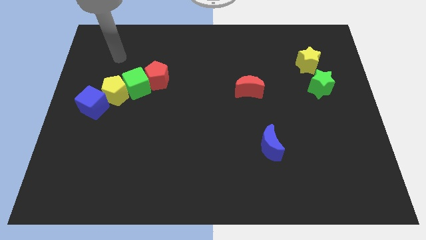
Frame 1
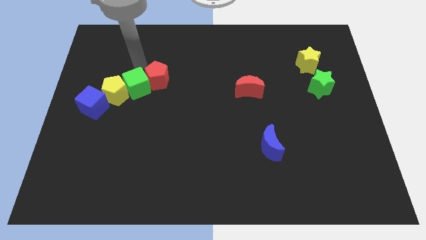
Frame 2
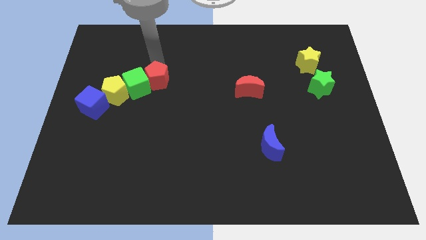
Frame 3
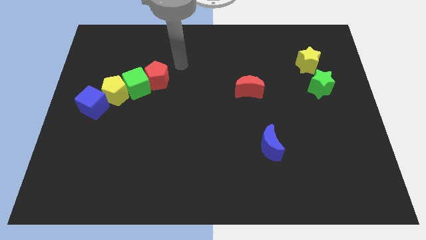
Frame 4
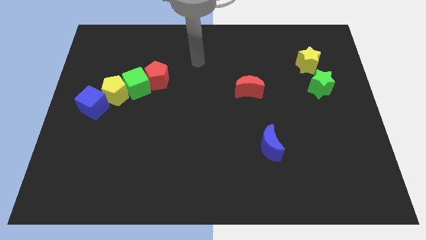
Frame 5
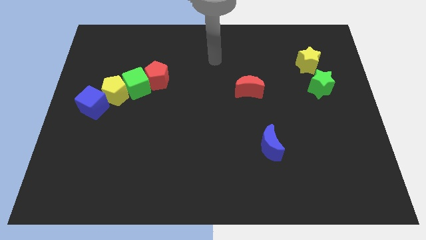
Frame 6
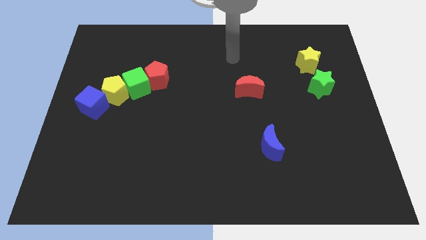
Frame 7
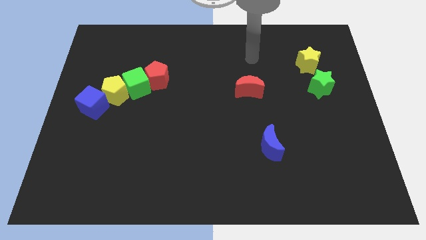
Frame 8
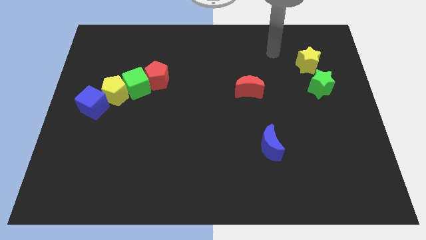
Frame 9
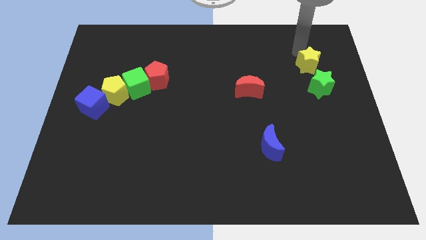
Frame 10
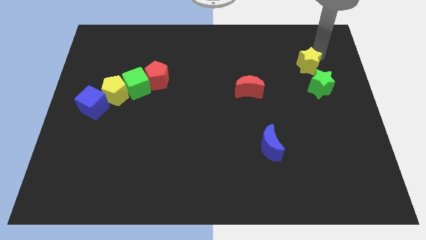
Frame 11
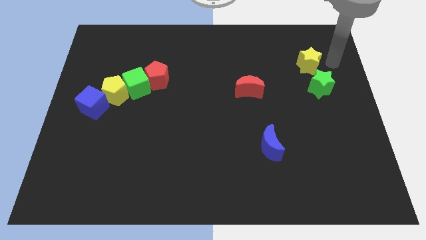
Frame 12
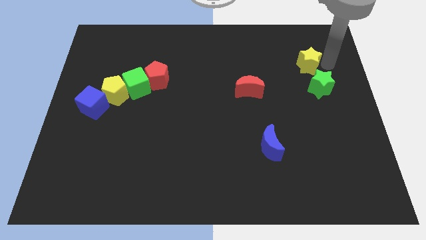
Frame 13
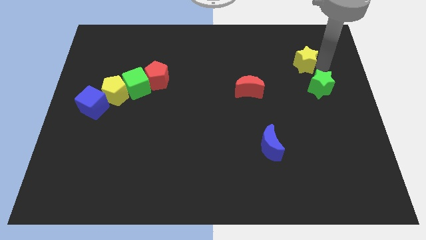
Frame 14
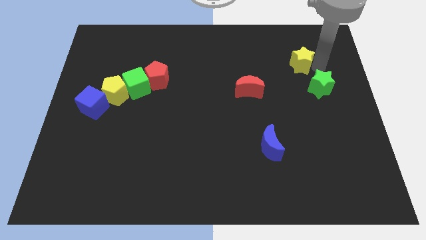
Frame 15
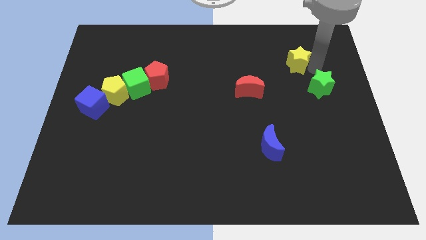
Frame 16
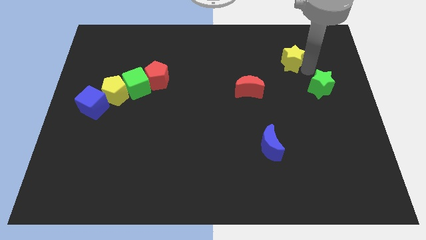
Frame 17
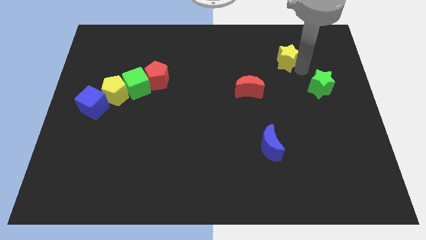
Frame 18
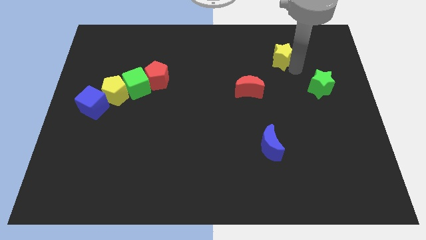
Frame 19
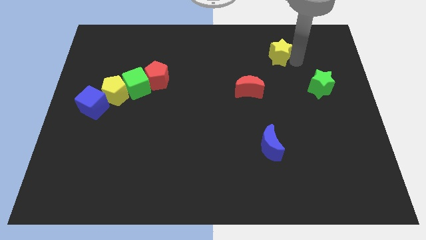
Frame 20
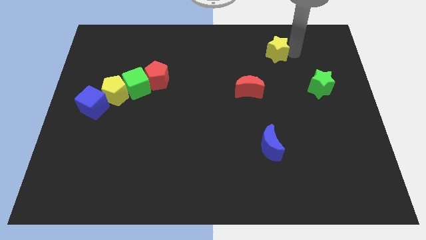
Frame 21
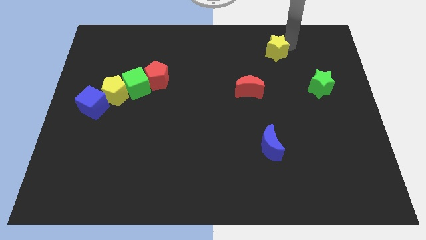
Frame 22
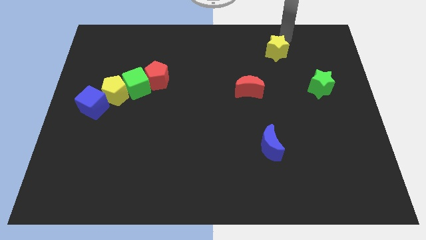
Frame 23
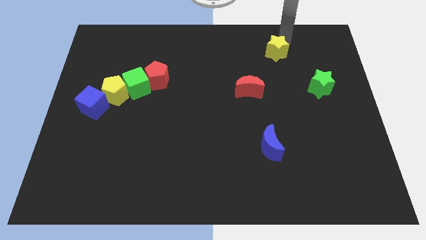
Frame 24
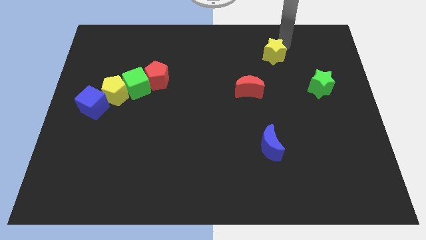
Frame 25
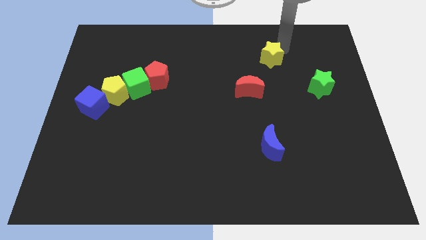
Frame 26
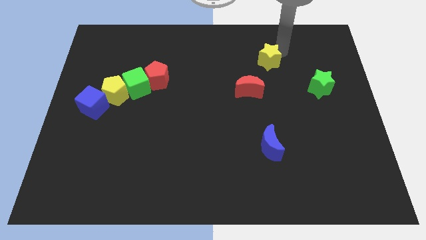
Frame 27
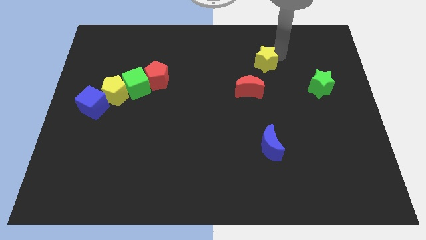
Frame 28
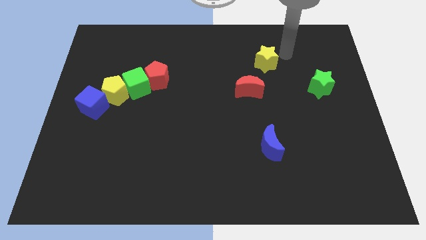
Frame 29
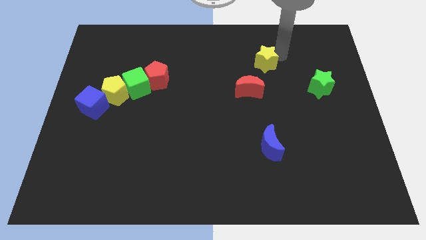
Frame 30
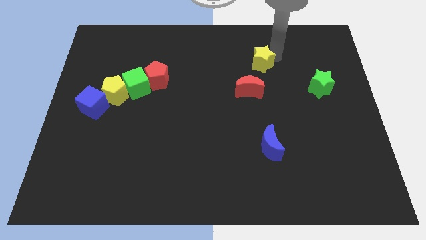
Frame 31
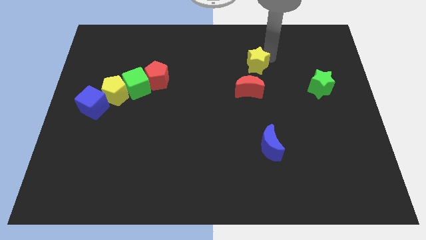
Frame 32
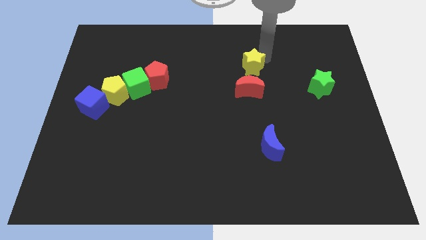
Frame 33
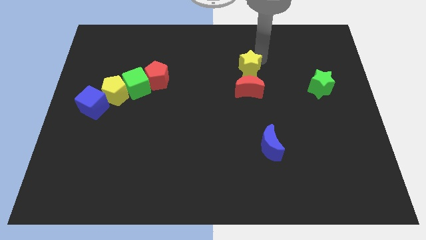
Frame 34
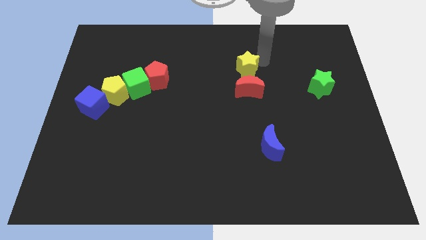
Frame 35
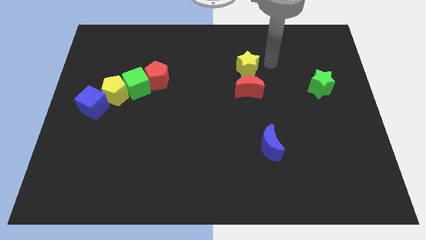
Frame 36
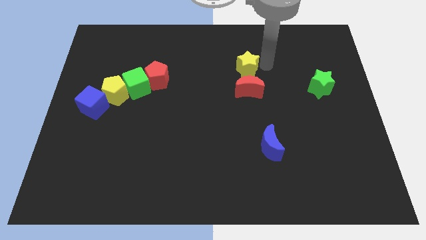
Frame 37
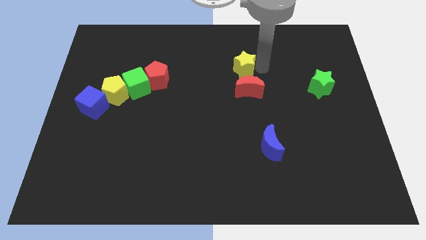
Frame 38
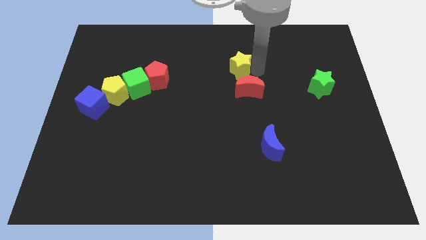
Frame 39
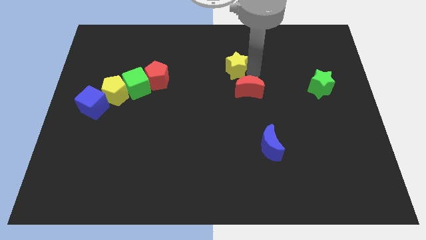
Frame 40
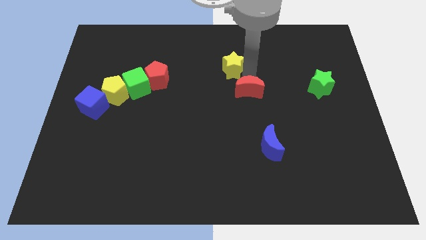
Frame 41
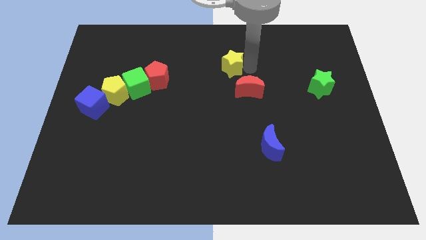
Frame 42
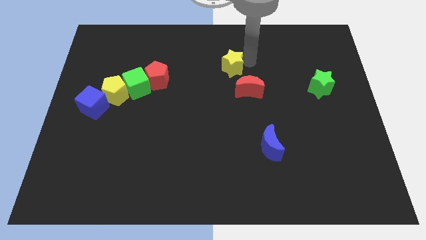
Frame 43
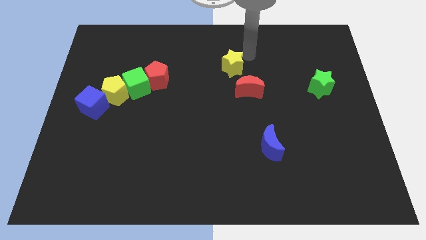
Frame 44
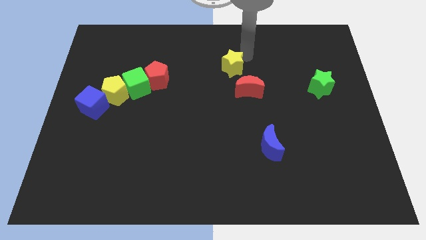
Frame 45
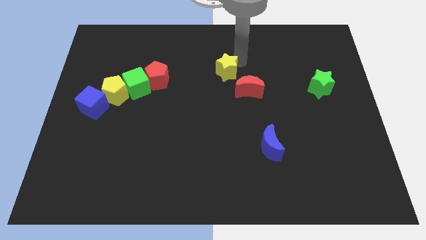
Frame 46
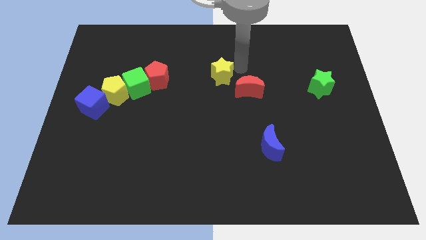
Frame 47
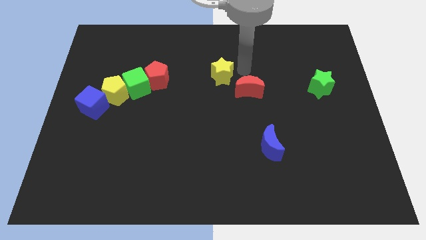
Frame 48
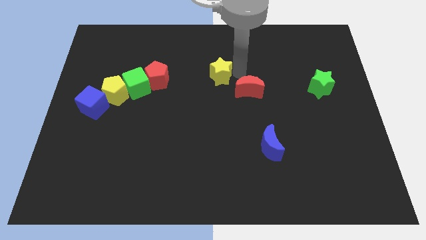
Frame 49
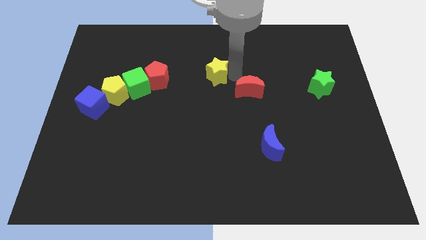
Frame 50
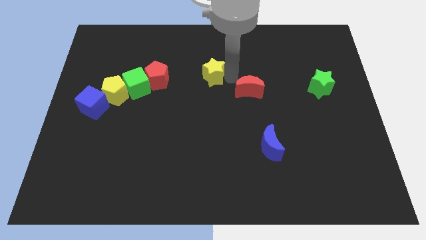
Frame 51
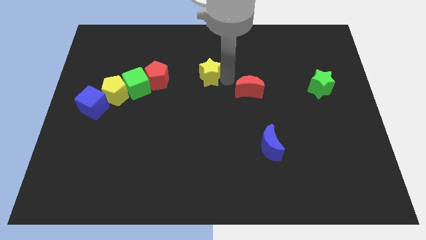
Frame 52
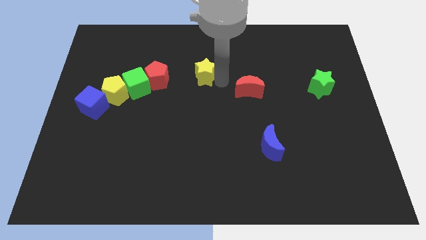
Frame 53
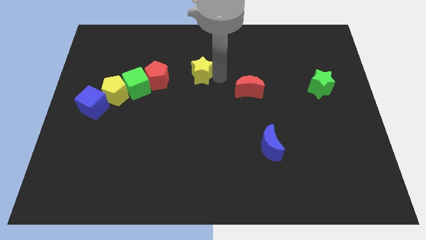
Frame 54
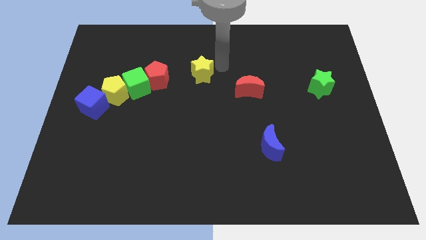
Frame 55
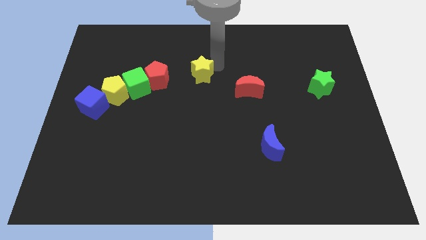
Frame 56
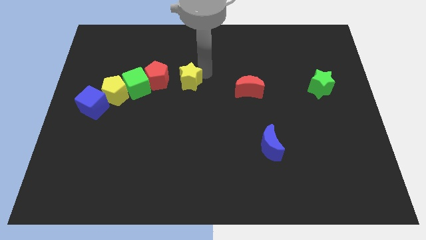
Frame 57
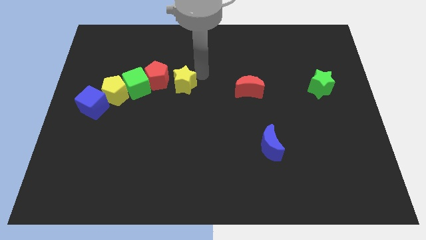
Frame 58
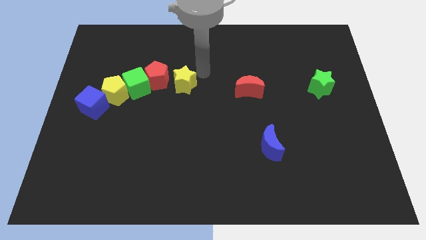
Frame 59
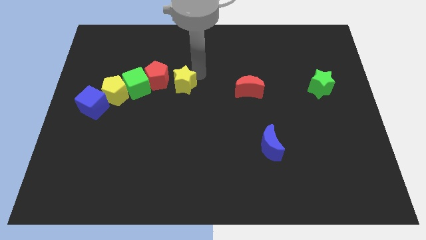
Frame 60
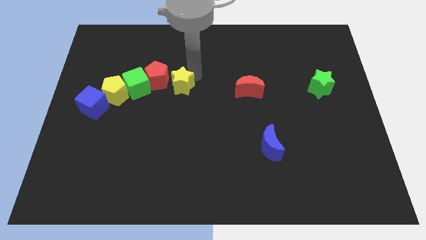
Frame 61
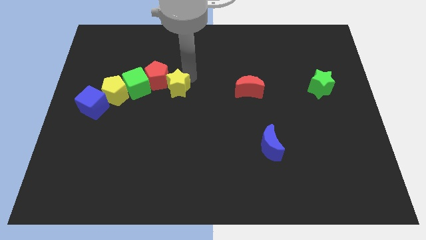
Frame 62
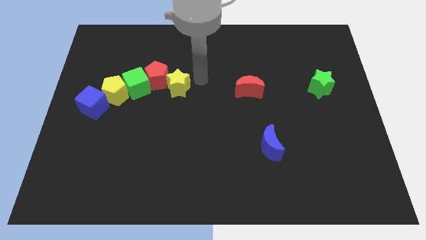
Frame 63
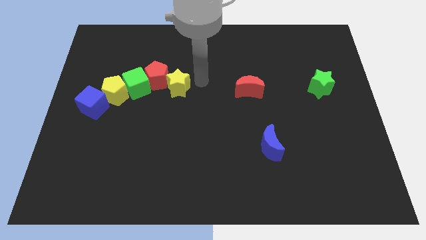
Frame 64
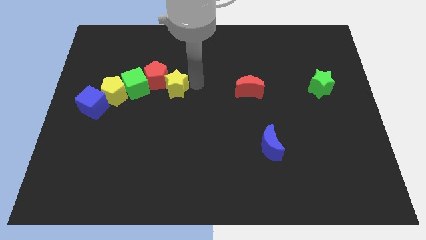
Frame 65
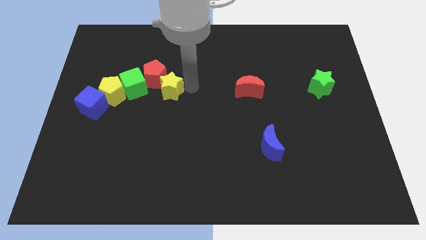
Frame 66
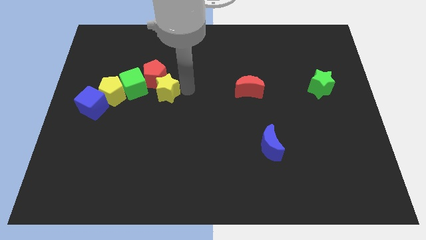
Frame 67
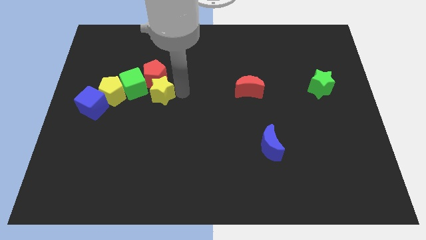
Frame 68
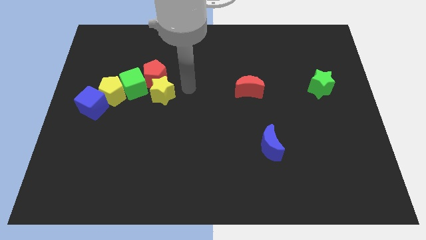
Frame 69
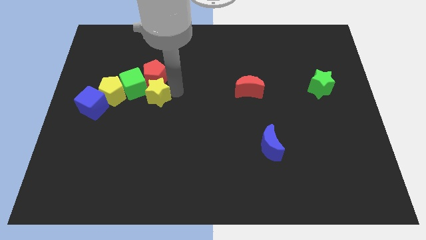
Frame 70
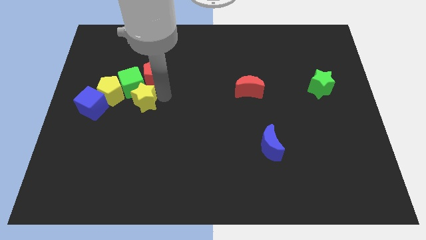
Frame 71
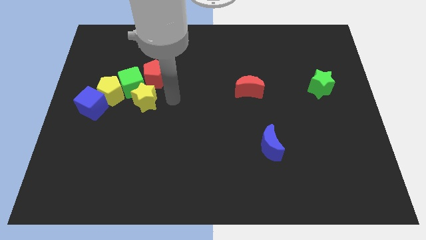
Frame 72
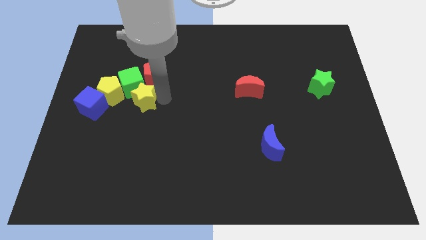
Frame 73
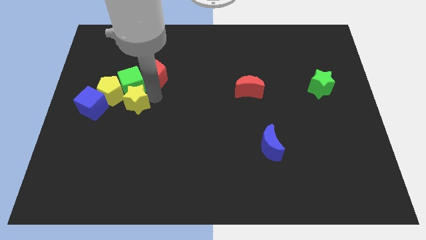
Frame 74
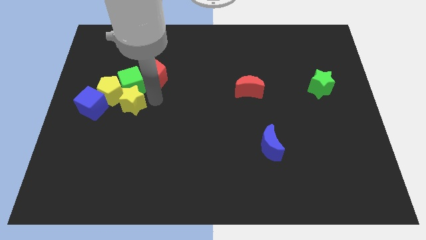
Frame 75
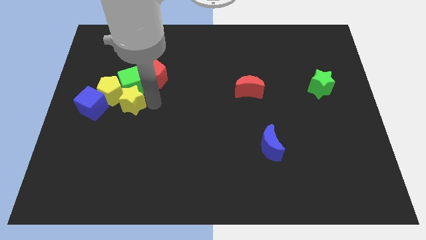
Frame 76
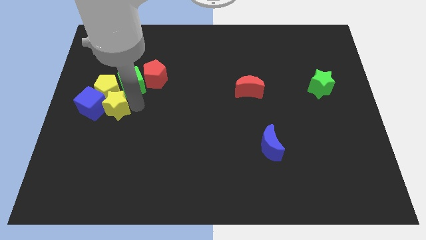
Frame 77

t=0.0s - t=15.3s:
move the yellow star close to the blue cube
